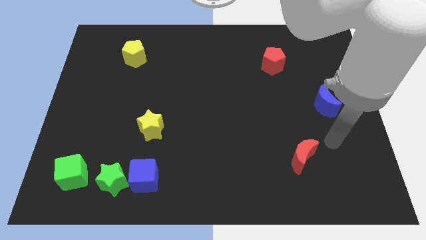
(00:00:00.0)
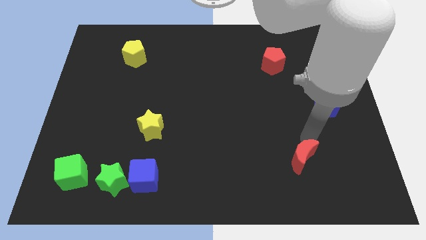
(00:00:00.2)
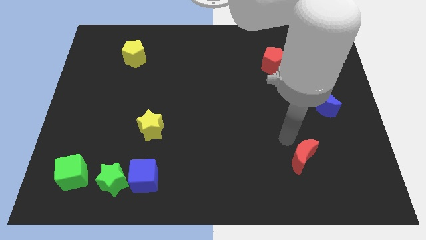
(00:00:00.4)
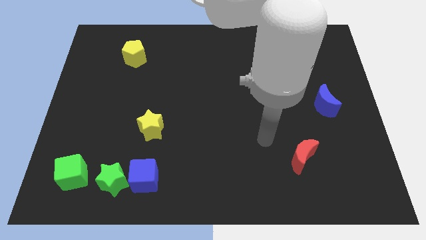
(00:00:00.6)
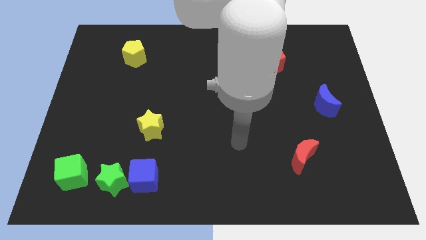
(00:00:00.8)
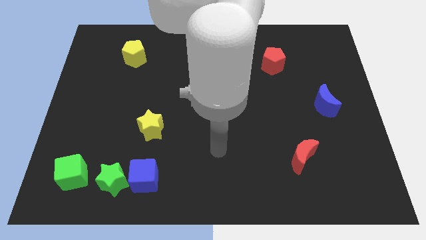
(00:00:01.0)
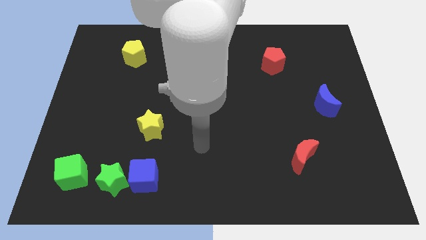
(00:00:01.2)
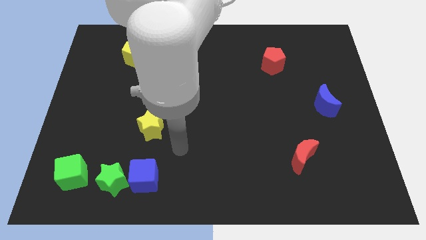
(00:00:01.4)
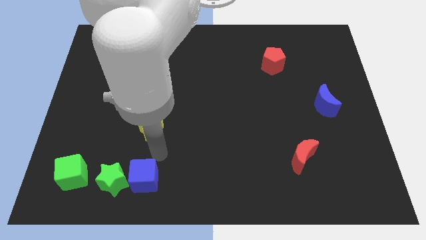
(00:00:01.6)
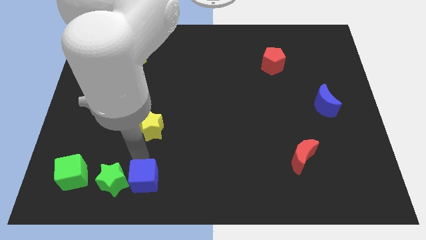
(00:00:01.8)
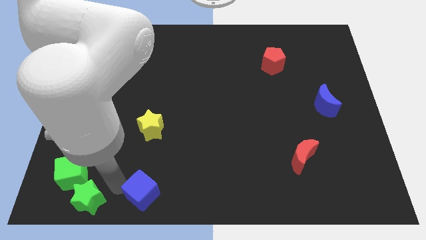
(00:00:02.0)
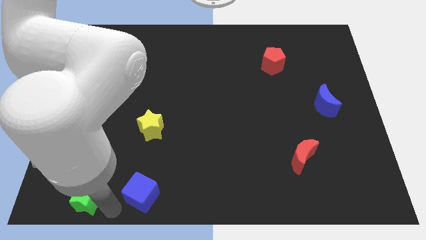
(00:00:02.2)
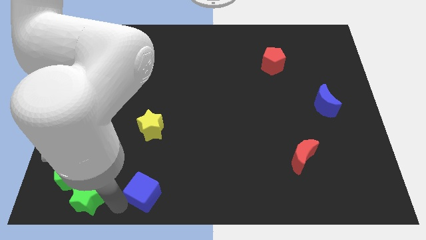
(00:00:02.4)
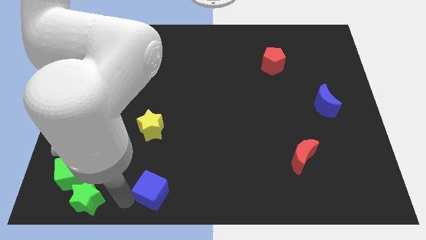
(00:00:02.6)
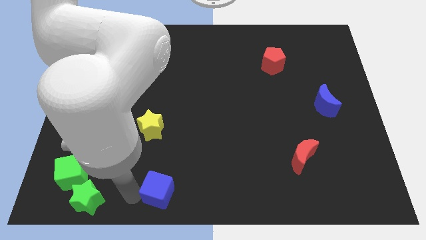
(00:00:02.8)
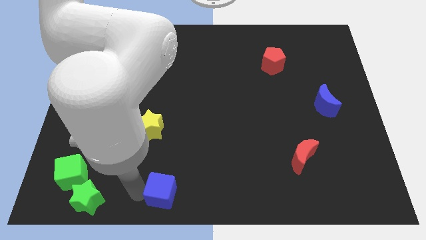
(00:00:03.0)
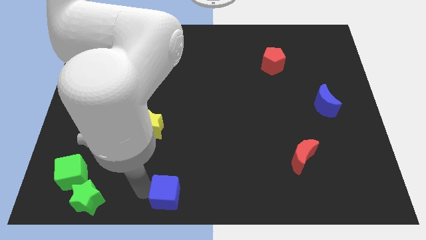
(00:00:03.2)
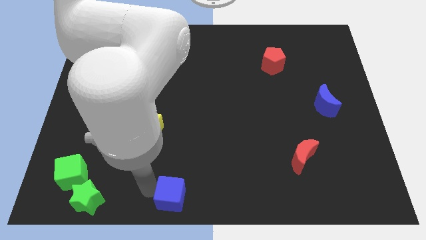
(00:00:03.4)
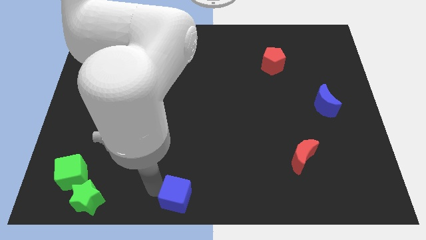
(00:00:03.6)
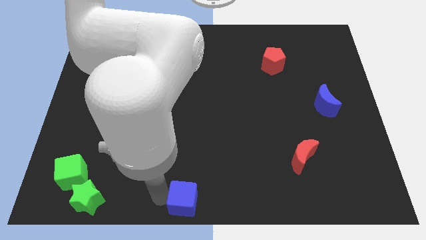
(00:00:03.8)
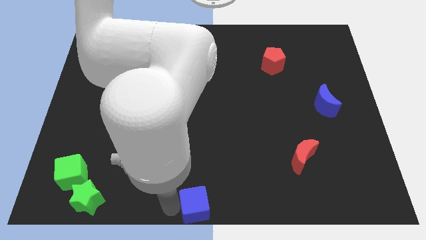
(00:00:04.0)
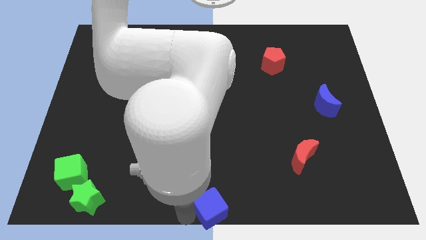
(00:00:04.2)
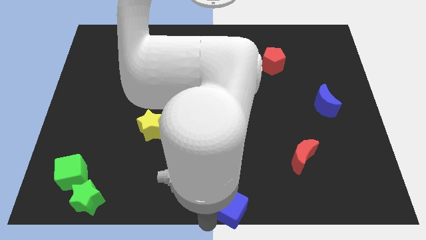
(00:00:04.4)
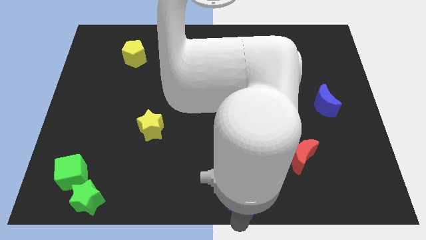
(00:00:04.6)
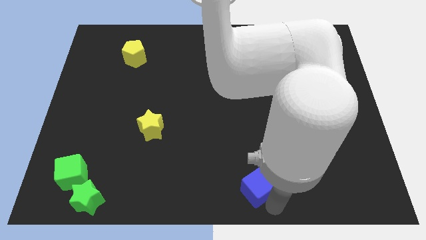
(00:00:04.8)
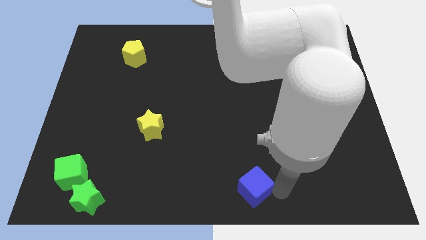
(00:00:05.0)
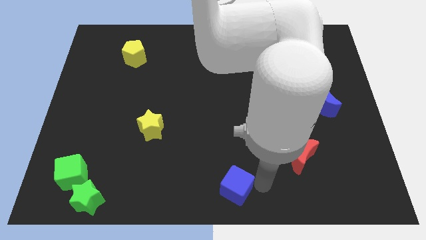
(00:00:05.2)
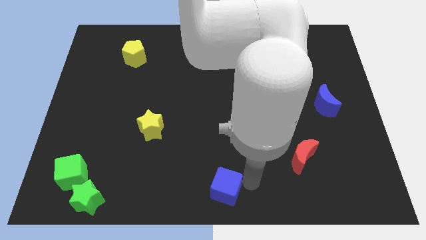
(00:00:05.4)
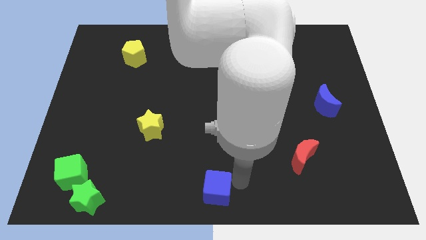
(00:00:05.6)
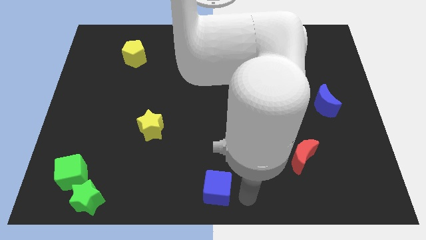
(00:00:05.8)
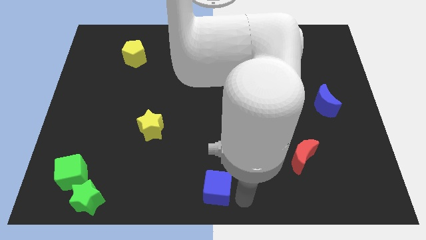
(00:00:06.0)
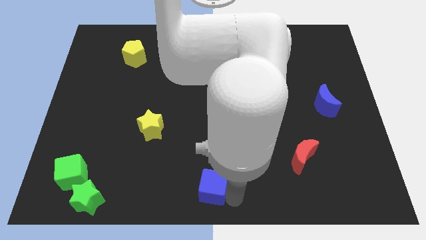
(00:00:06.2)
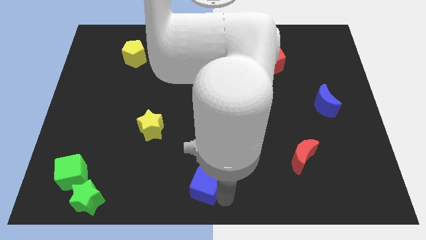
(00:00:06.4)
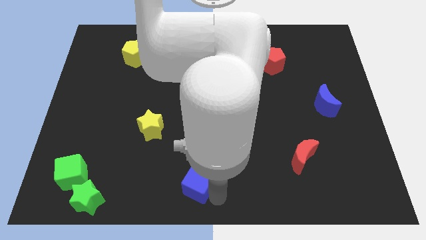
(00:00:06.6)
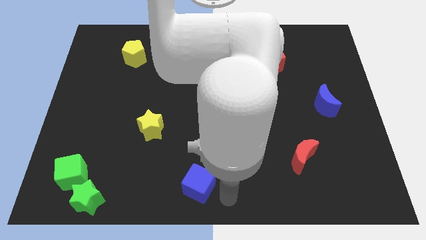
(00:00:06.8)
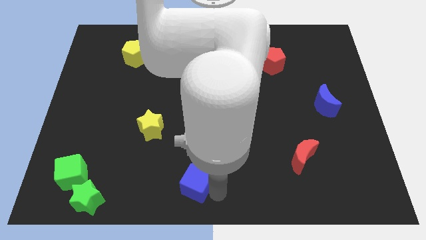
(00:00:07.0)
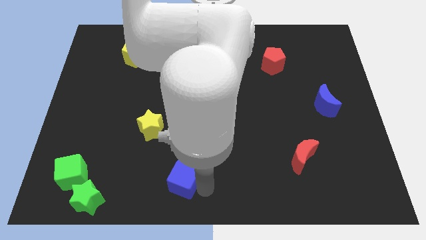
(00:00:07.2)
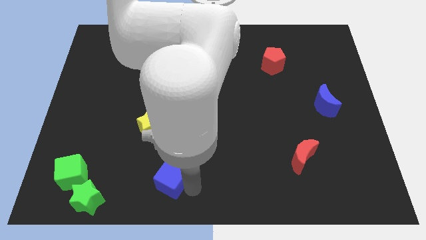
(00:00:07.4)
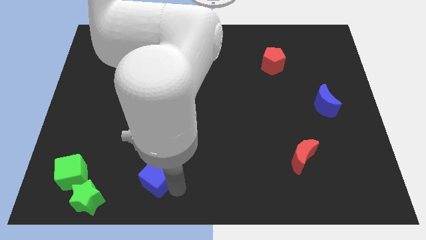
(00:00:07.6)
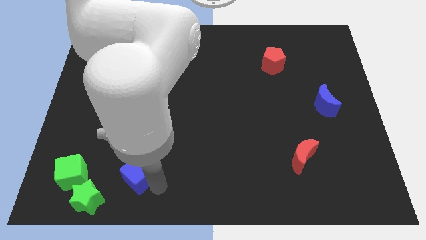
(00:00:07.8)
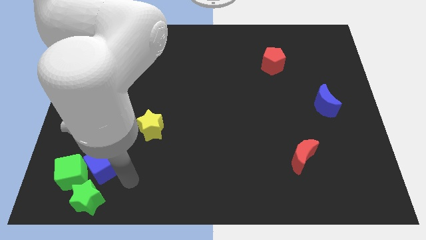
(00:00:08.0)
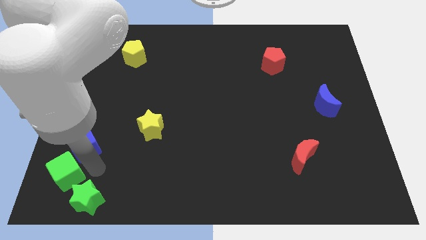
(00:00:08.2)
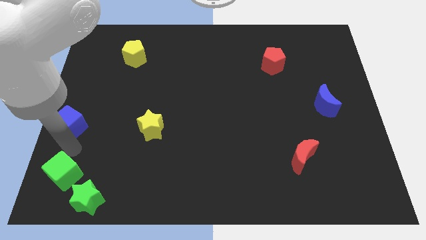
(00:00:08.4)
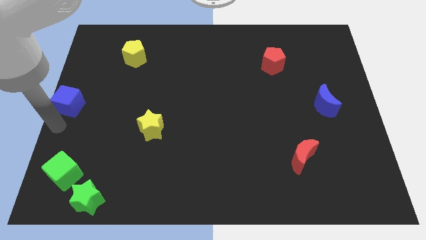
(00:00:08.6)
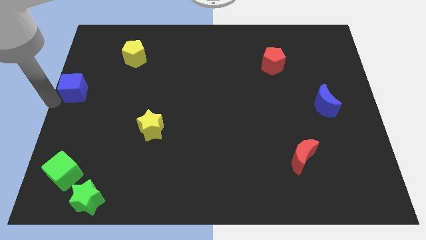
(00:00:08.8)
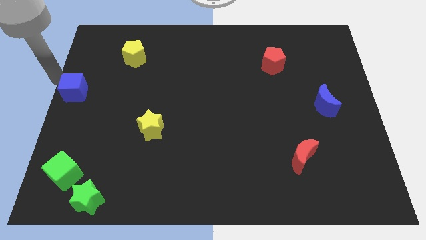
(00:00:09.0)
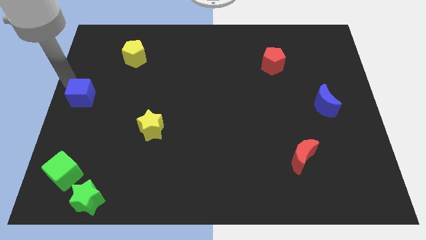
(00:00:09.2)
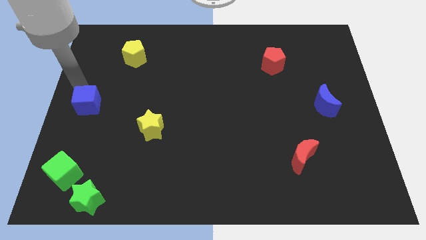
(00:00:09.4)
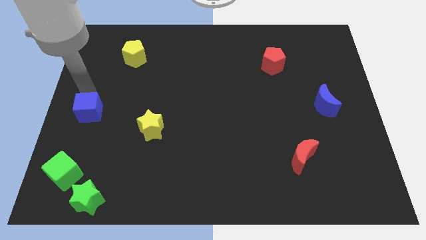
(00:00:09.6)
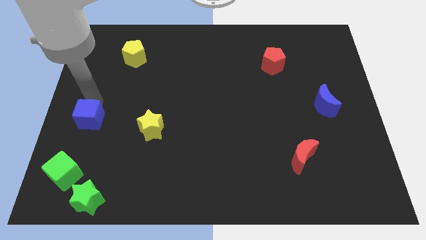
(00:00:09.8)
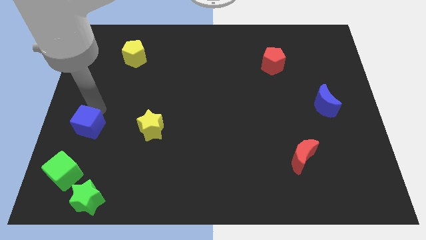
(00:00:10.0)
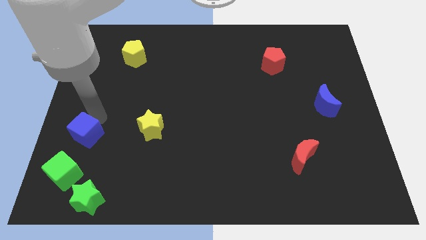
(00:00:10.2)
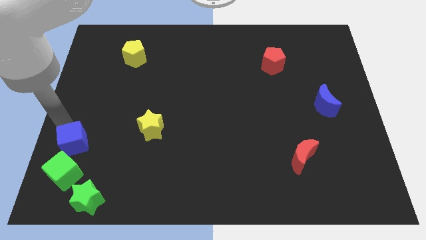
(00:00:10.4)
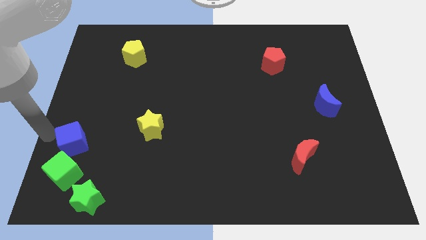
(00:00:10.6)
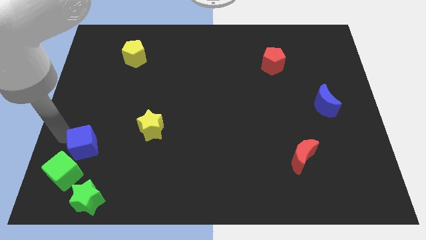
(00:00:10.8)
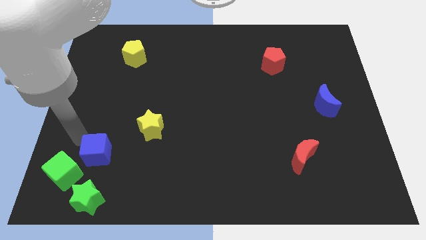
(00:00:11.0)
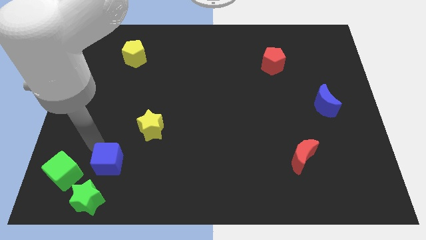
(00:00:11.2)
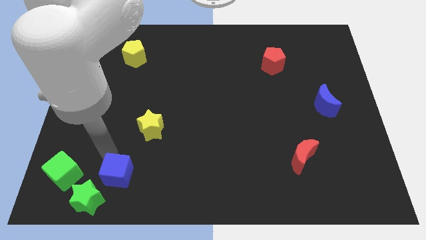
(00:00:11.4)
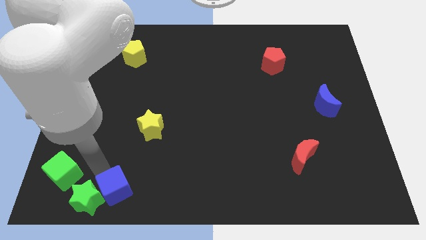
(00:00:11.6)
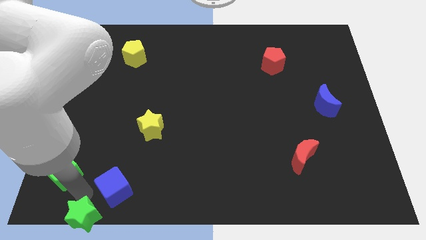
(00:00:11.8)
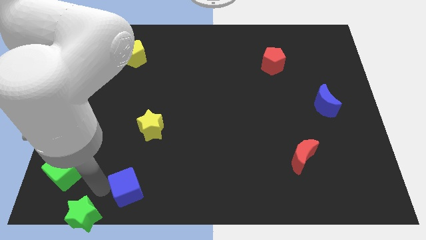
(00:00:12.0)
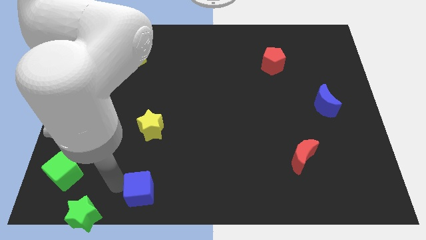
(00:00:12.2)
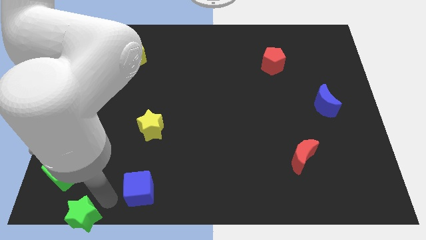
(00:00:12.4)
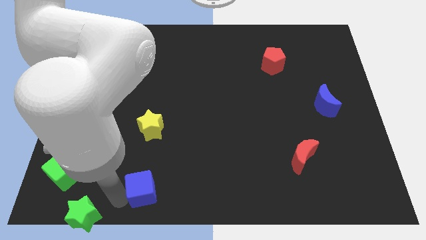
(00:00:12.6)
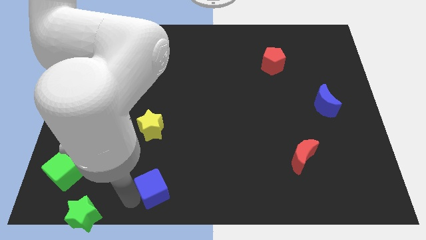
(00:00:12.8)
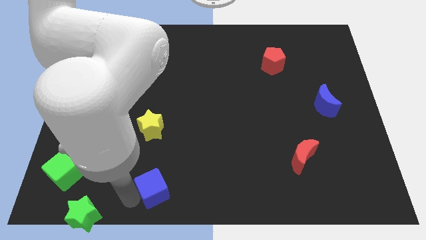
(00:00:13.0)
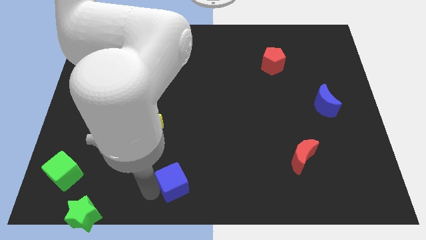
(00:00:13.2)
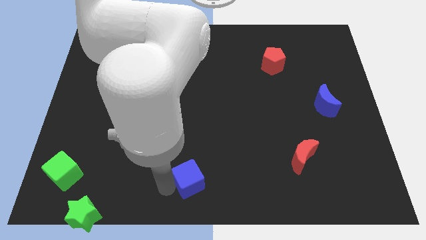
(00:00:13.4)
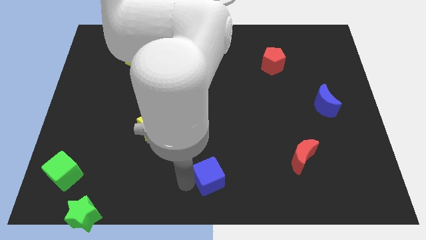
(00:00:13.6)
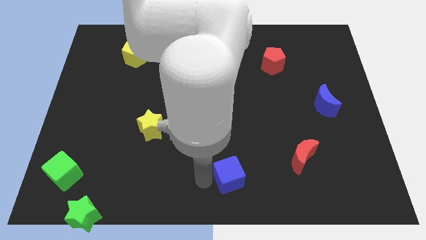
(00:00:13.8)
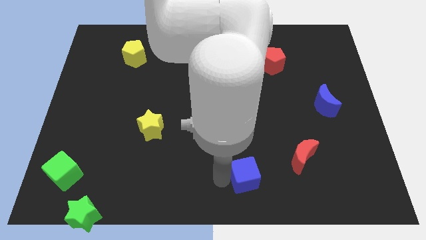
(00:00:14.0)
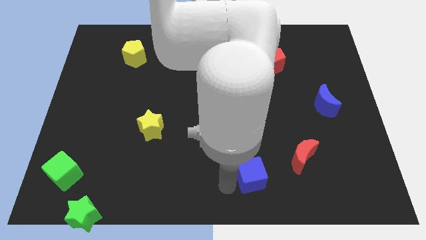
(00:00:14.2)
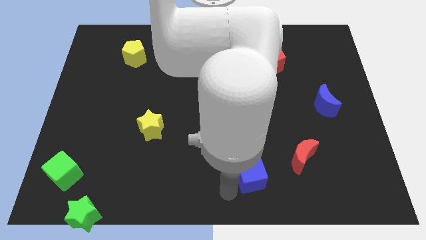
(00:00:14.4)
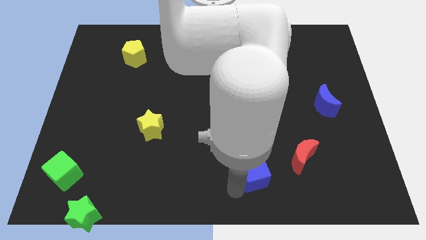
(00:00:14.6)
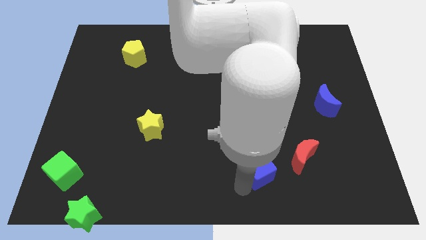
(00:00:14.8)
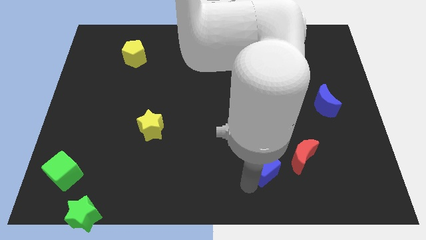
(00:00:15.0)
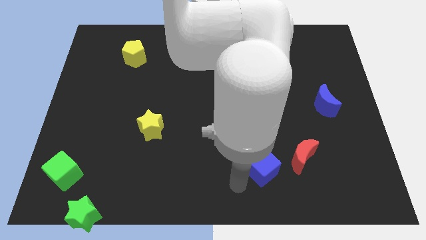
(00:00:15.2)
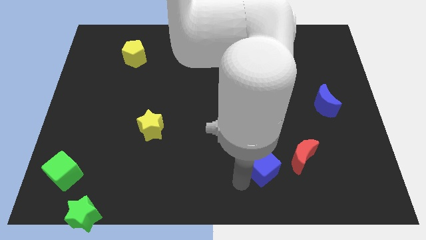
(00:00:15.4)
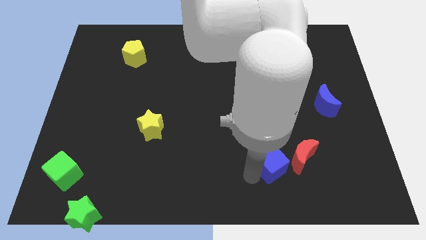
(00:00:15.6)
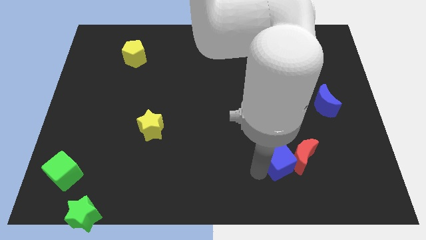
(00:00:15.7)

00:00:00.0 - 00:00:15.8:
push the blue cube towards the red moon
